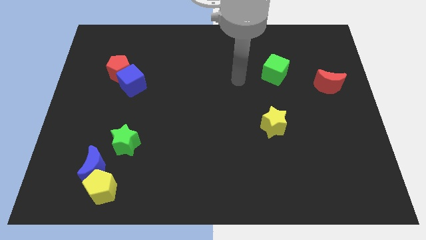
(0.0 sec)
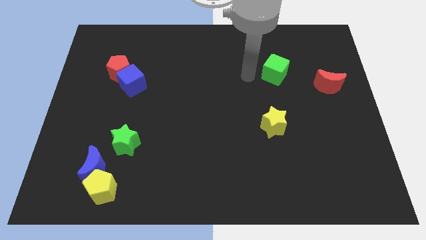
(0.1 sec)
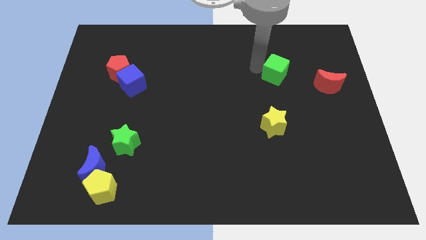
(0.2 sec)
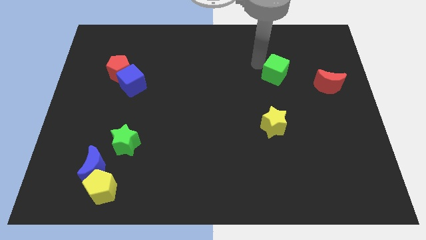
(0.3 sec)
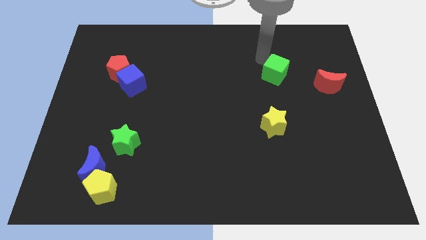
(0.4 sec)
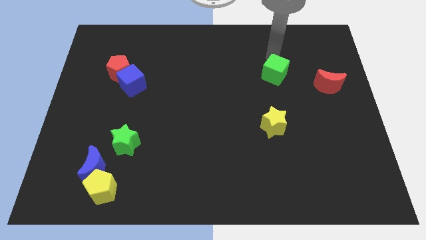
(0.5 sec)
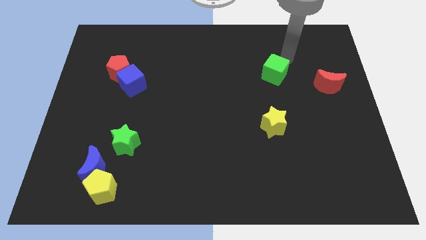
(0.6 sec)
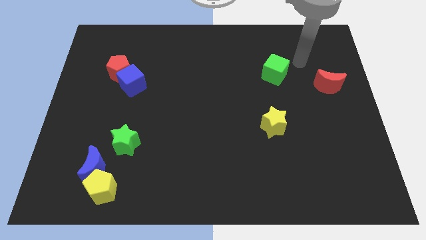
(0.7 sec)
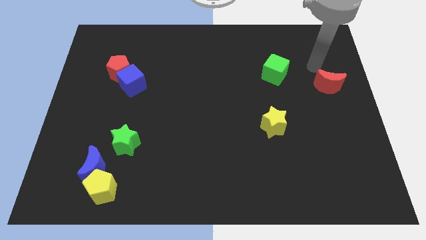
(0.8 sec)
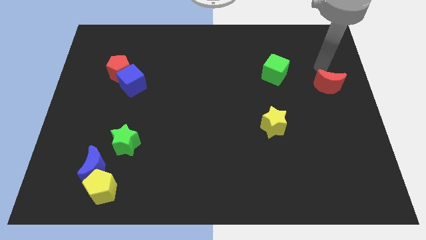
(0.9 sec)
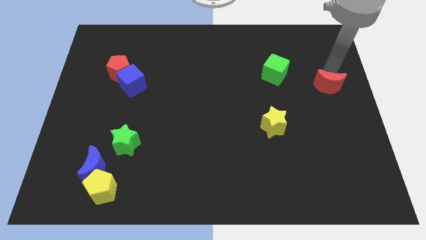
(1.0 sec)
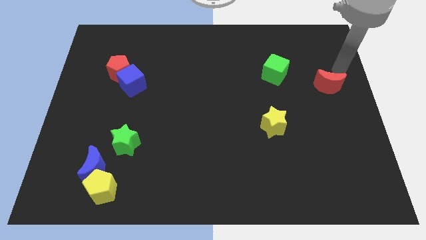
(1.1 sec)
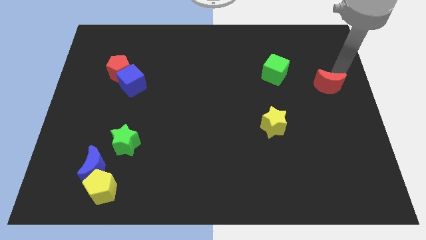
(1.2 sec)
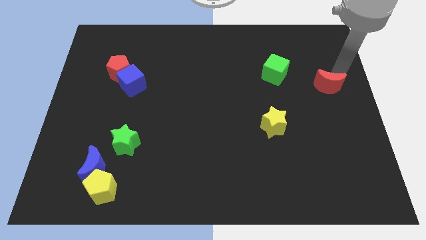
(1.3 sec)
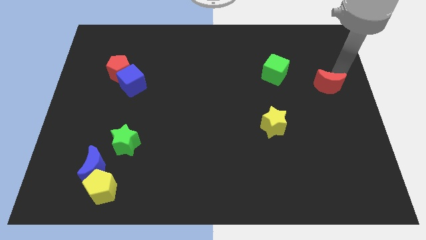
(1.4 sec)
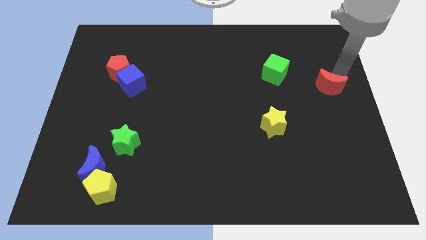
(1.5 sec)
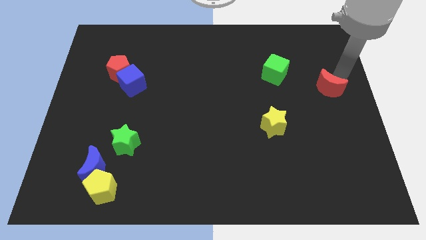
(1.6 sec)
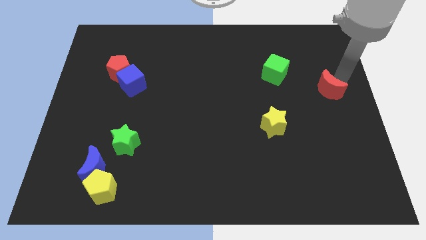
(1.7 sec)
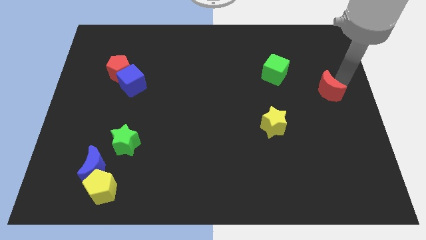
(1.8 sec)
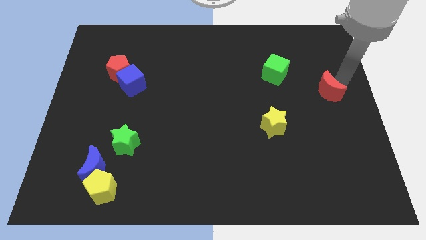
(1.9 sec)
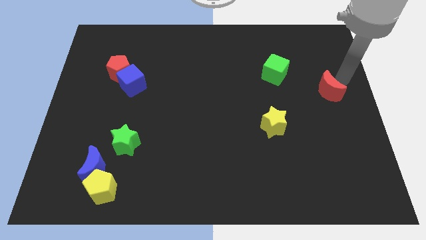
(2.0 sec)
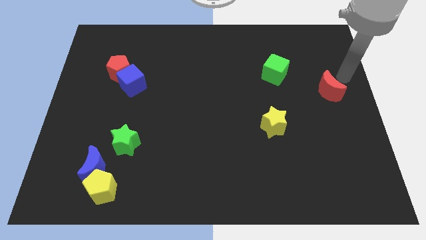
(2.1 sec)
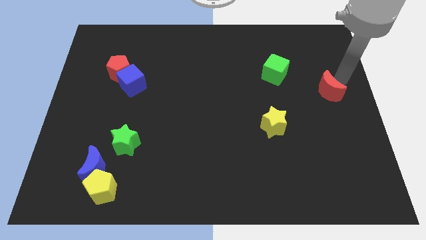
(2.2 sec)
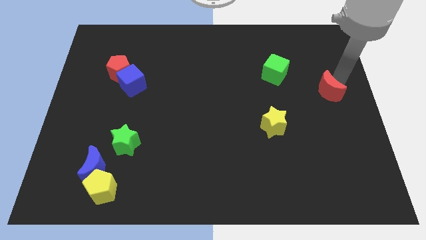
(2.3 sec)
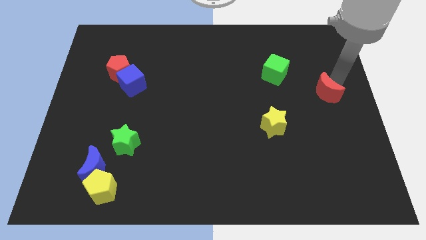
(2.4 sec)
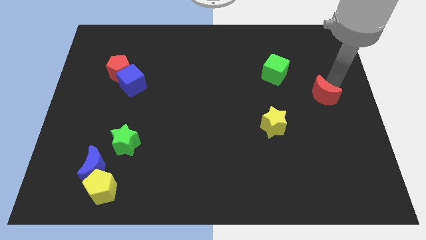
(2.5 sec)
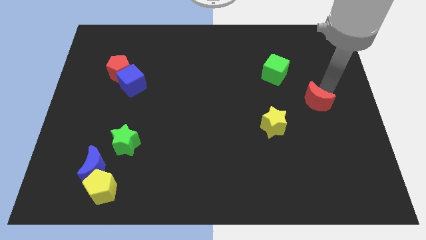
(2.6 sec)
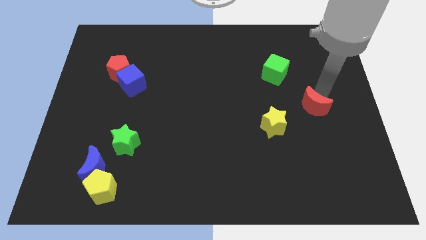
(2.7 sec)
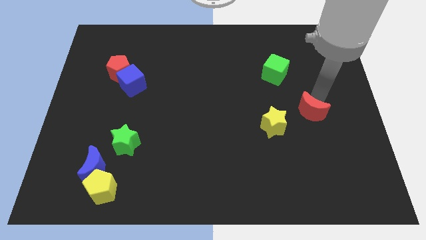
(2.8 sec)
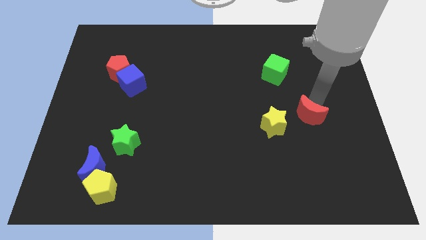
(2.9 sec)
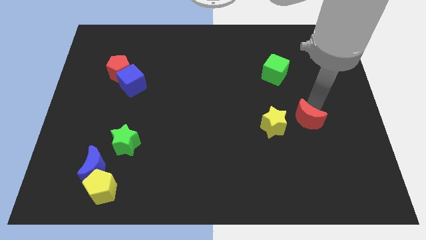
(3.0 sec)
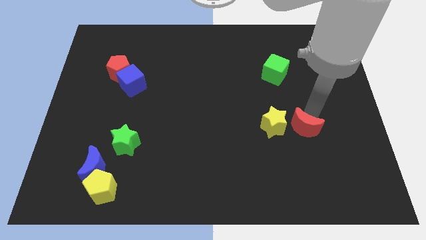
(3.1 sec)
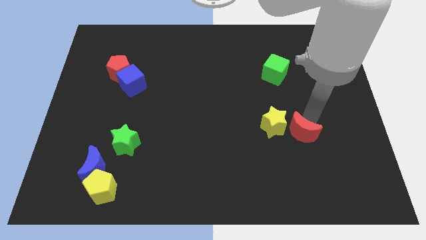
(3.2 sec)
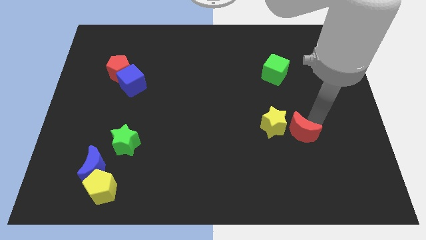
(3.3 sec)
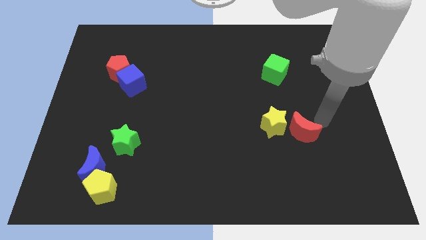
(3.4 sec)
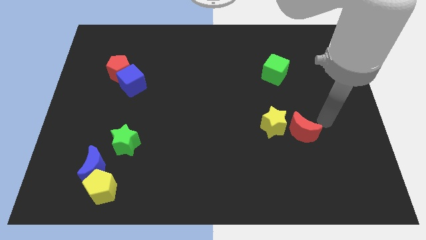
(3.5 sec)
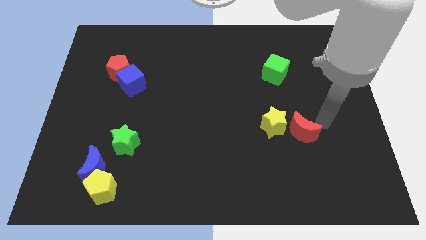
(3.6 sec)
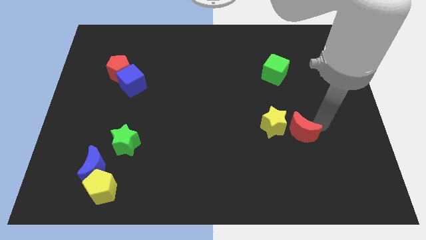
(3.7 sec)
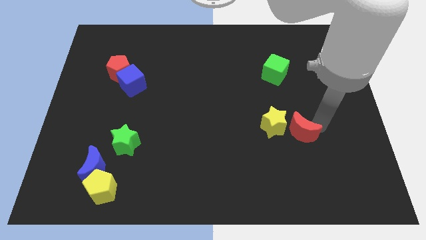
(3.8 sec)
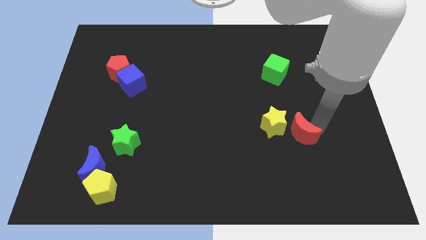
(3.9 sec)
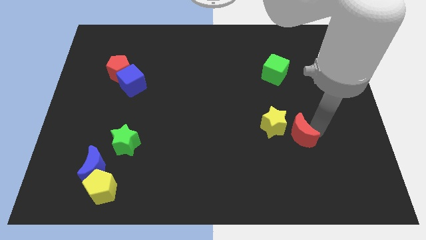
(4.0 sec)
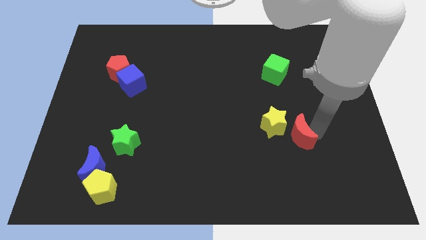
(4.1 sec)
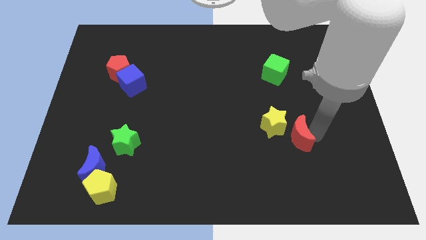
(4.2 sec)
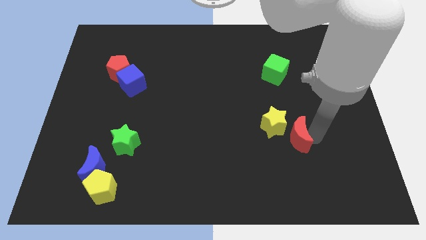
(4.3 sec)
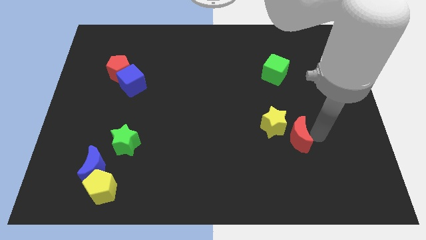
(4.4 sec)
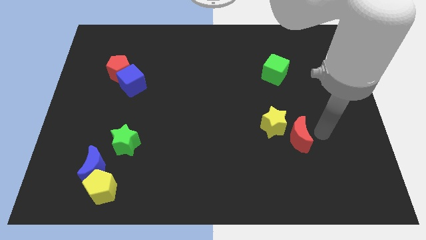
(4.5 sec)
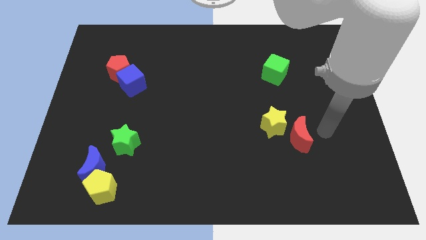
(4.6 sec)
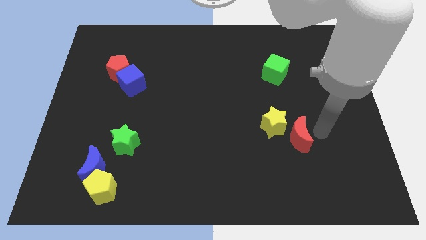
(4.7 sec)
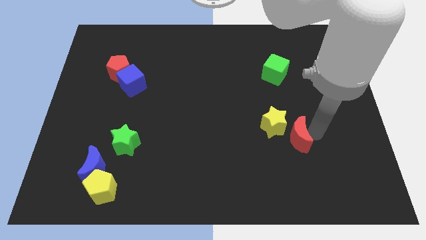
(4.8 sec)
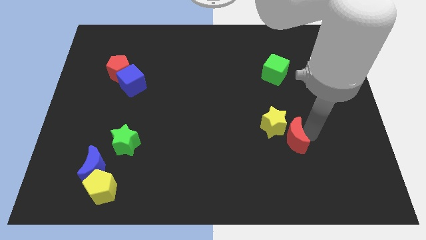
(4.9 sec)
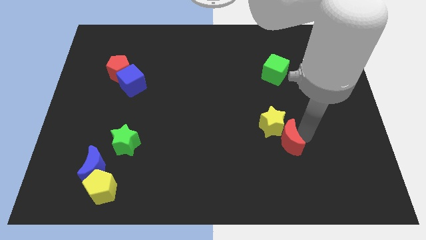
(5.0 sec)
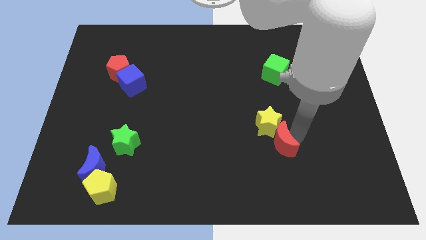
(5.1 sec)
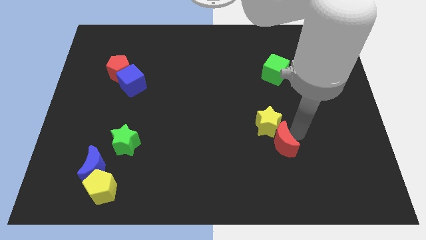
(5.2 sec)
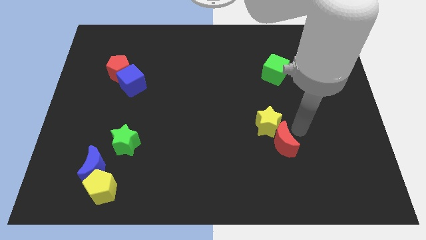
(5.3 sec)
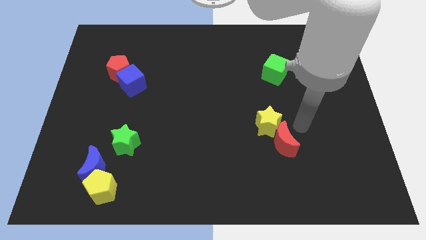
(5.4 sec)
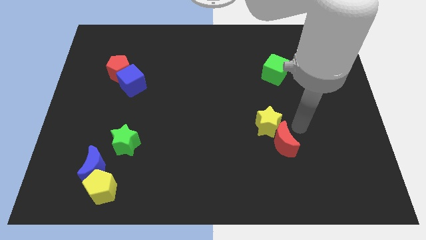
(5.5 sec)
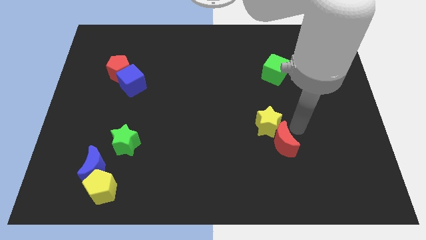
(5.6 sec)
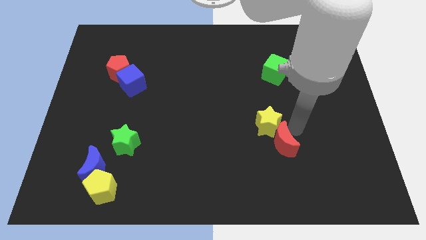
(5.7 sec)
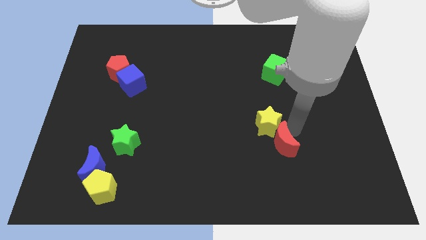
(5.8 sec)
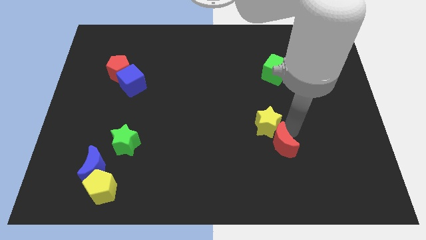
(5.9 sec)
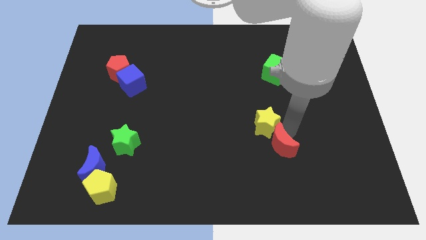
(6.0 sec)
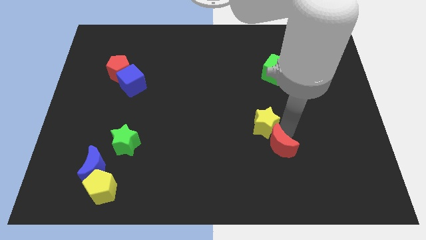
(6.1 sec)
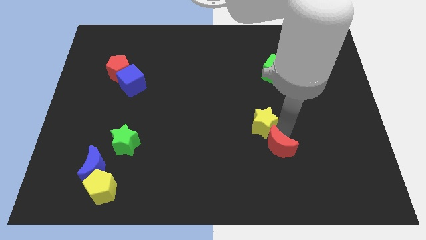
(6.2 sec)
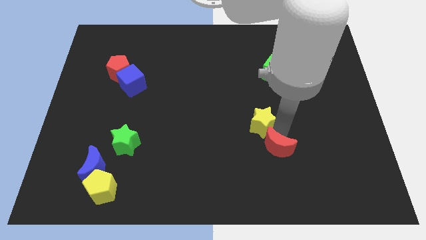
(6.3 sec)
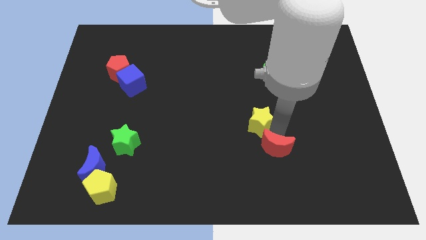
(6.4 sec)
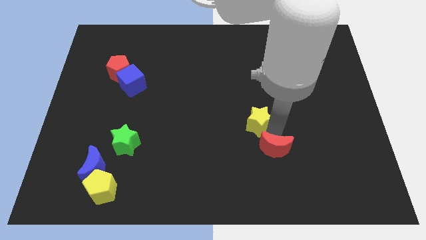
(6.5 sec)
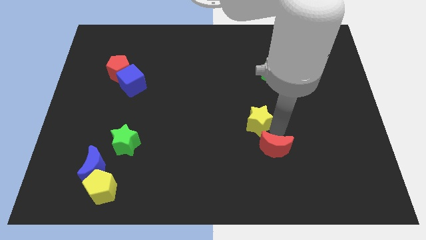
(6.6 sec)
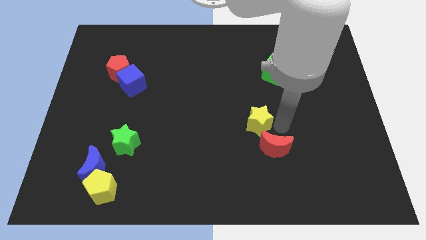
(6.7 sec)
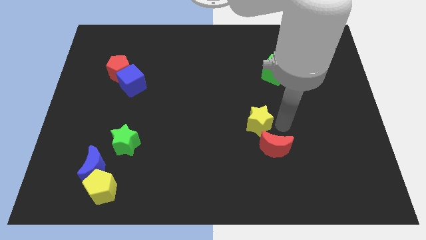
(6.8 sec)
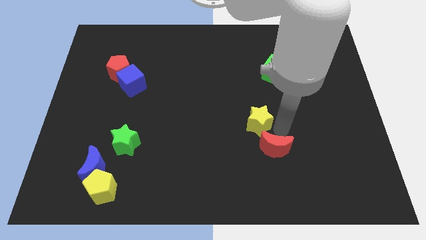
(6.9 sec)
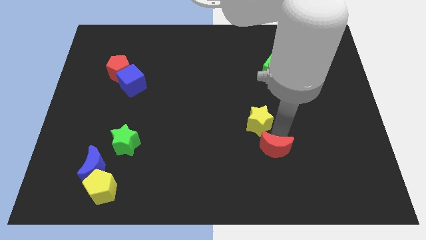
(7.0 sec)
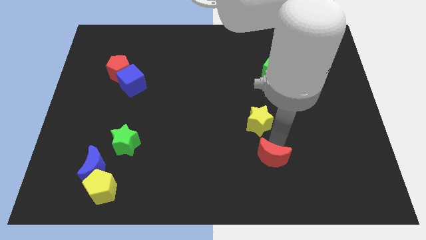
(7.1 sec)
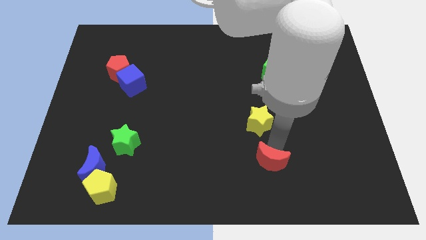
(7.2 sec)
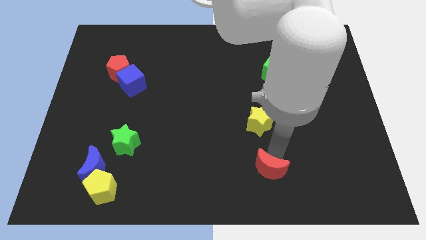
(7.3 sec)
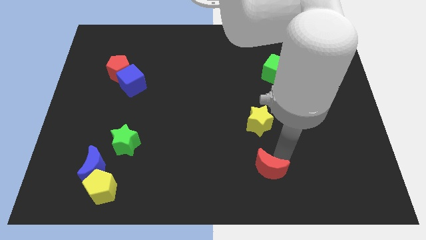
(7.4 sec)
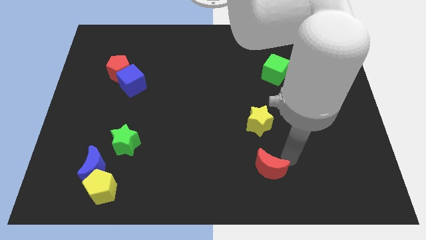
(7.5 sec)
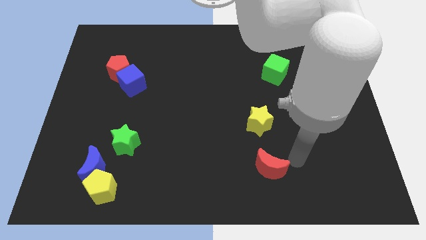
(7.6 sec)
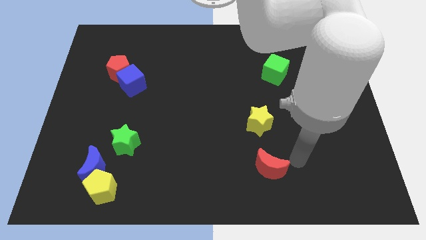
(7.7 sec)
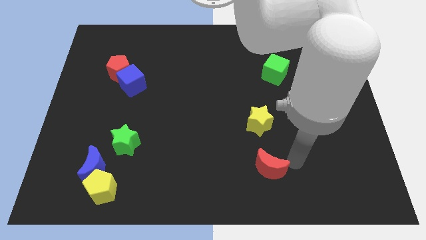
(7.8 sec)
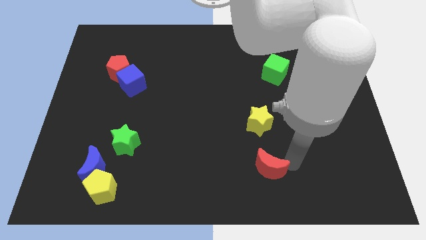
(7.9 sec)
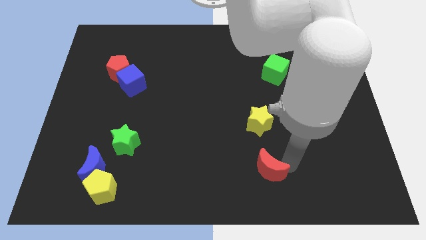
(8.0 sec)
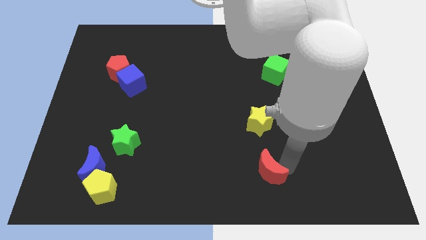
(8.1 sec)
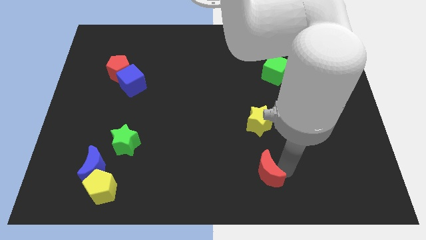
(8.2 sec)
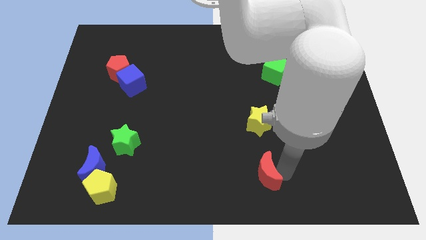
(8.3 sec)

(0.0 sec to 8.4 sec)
slide the red moon to the bottom
